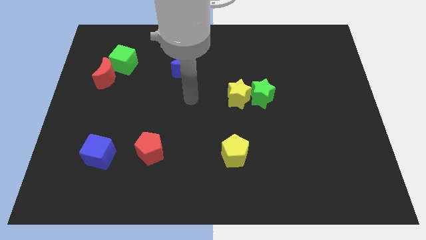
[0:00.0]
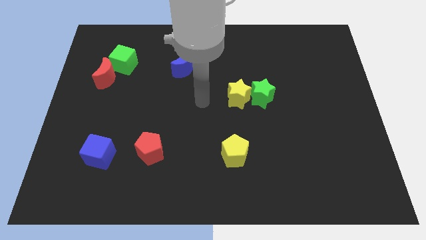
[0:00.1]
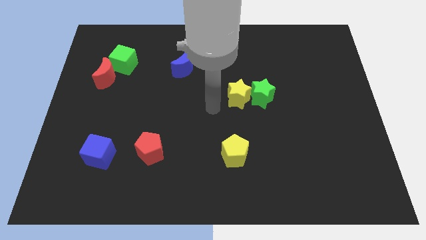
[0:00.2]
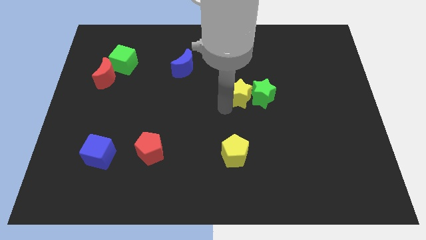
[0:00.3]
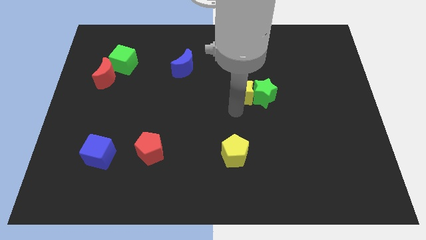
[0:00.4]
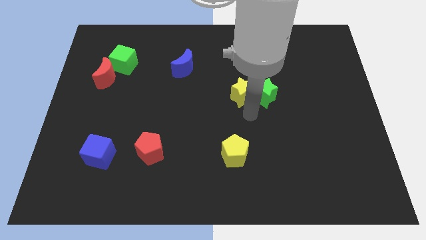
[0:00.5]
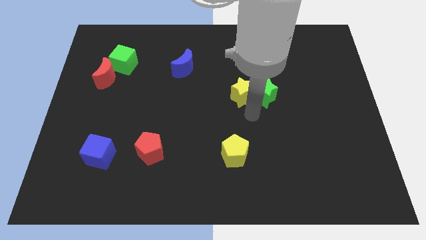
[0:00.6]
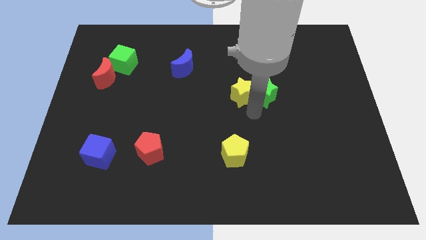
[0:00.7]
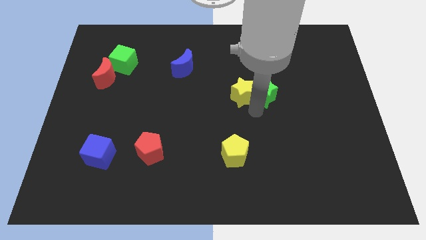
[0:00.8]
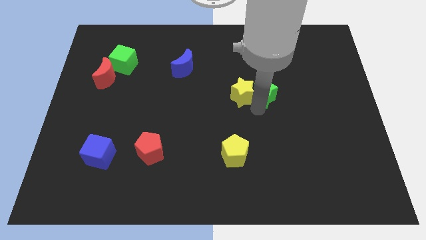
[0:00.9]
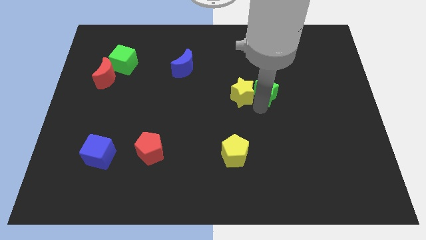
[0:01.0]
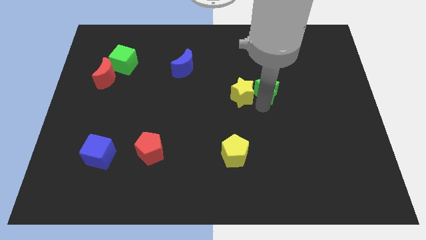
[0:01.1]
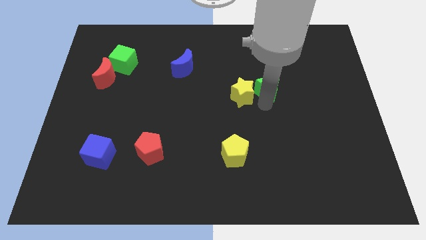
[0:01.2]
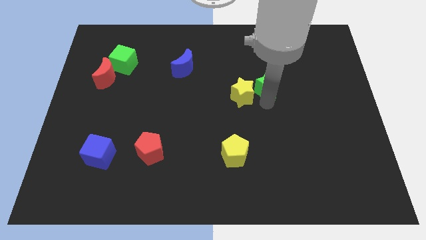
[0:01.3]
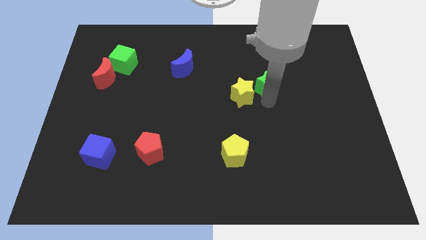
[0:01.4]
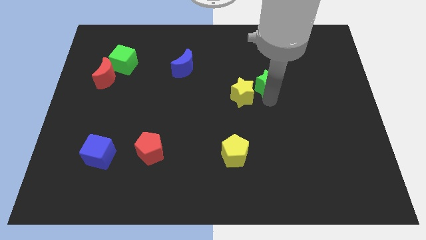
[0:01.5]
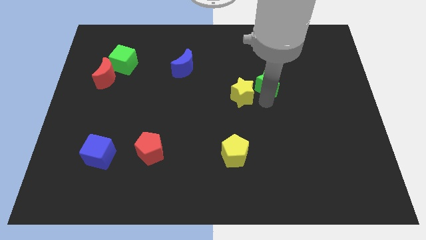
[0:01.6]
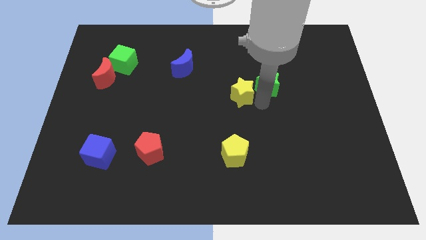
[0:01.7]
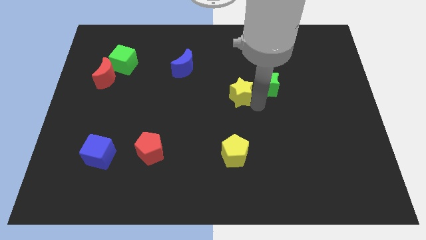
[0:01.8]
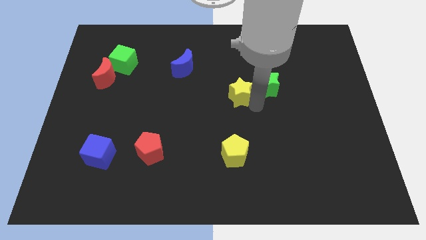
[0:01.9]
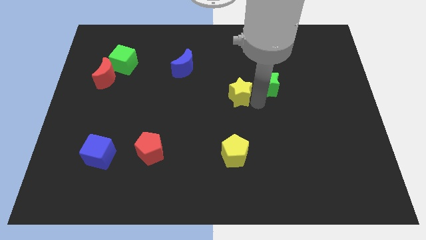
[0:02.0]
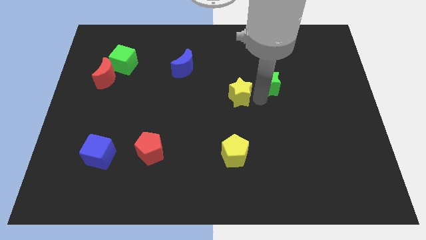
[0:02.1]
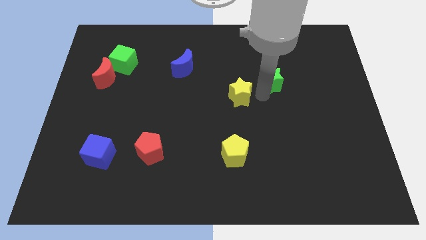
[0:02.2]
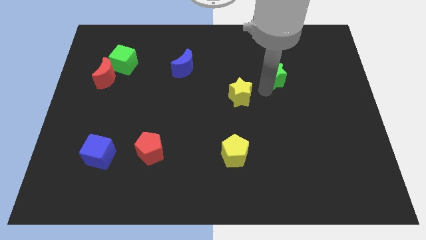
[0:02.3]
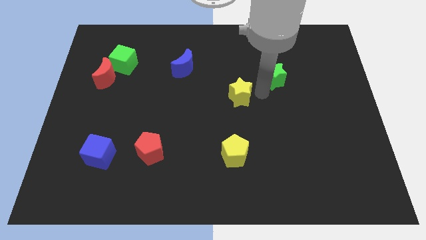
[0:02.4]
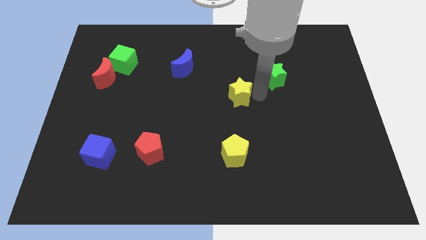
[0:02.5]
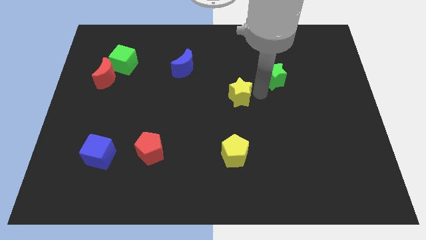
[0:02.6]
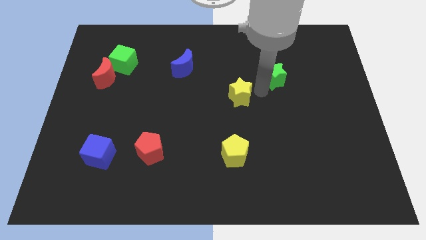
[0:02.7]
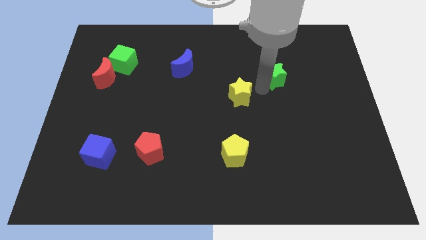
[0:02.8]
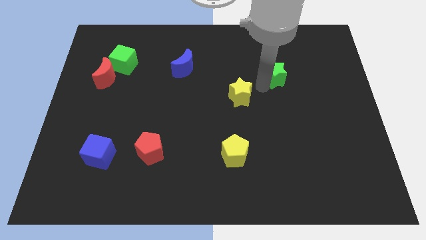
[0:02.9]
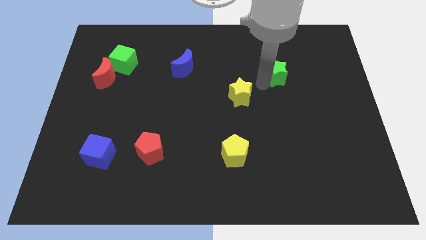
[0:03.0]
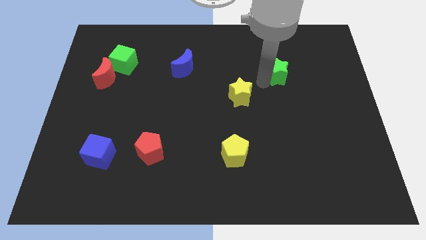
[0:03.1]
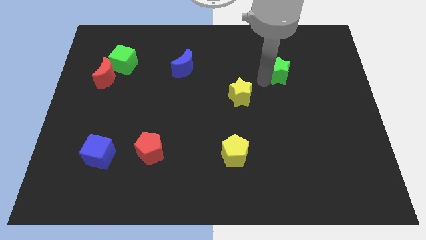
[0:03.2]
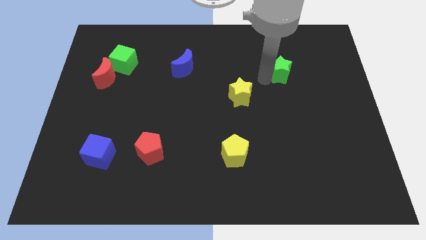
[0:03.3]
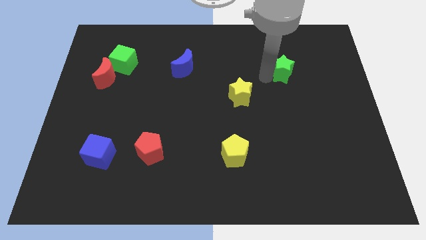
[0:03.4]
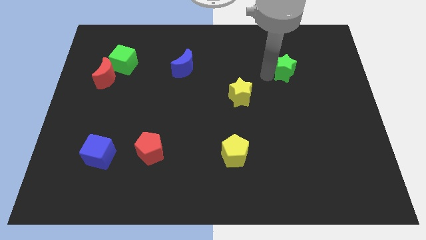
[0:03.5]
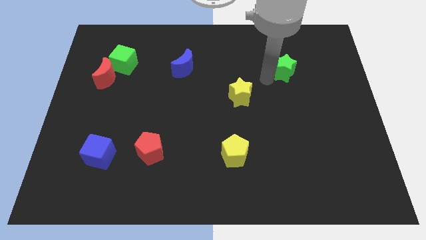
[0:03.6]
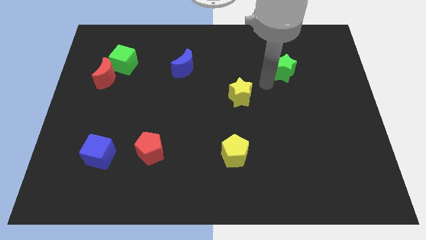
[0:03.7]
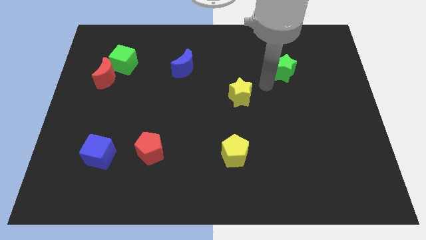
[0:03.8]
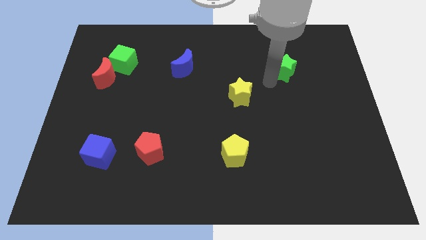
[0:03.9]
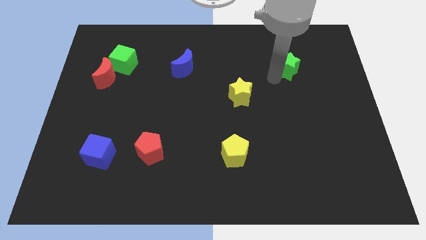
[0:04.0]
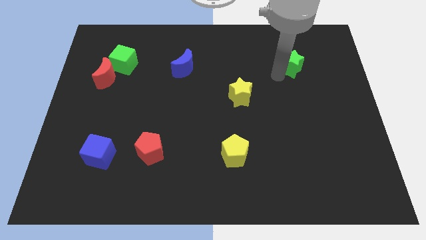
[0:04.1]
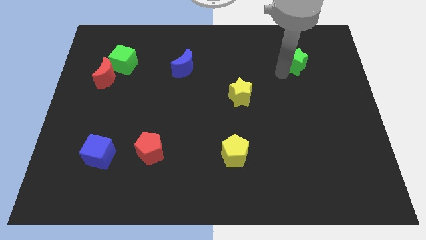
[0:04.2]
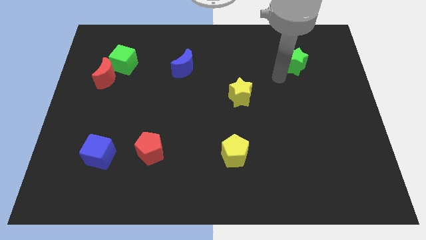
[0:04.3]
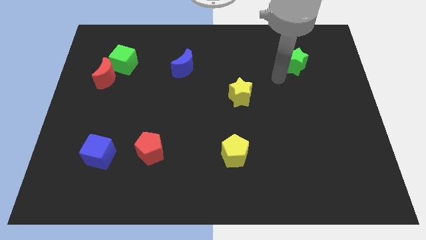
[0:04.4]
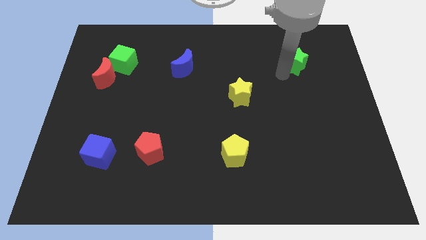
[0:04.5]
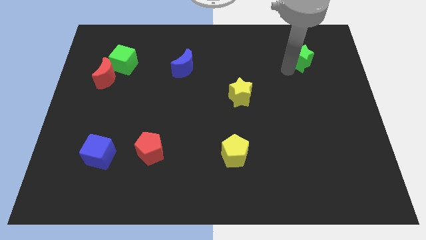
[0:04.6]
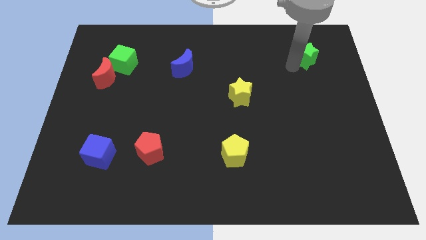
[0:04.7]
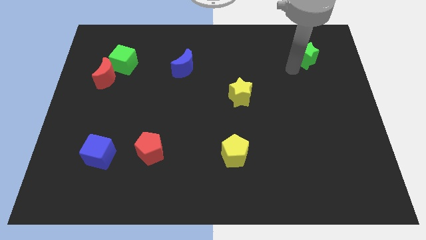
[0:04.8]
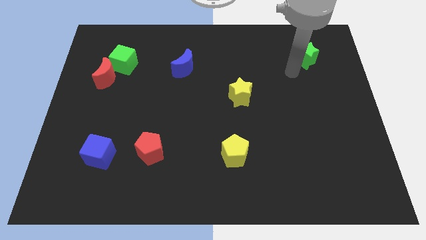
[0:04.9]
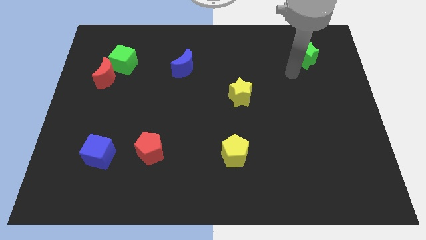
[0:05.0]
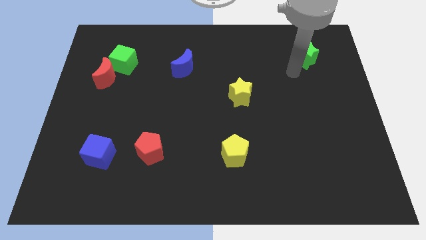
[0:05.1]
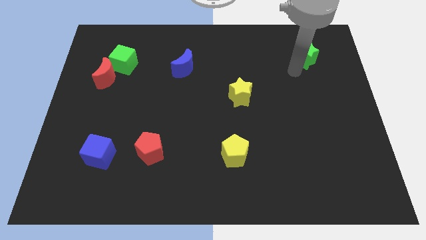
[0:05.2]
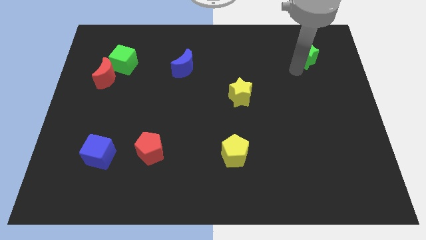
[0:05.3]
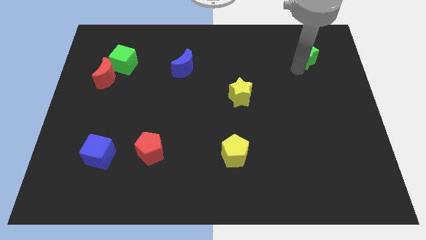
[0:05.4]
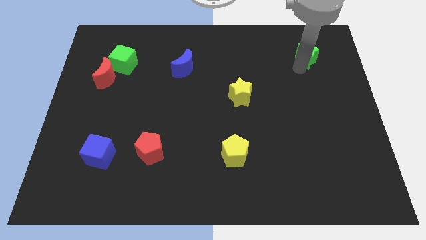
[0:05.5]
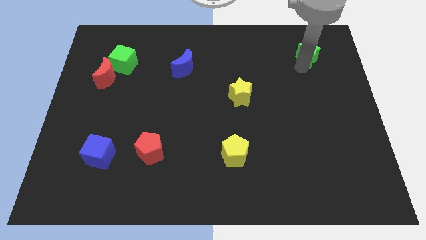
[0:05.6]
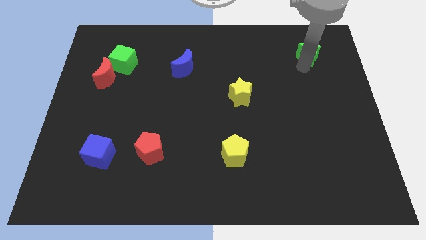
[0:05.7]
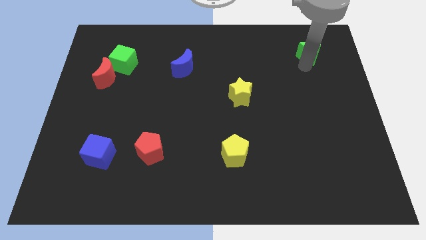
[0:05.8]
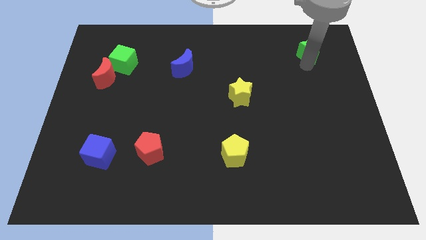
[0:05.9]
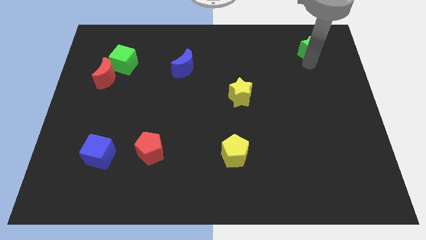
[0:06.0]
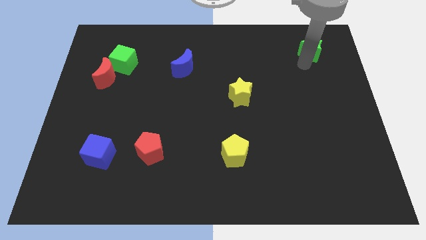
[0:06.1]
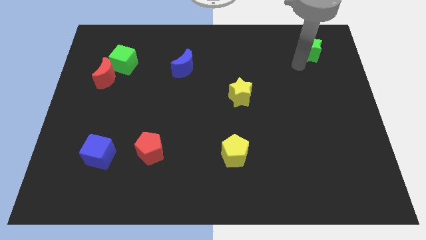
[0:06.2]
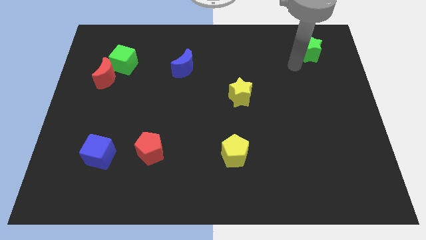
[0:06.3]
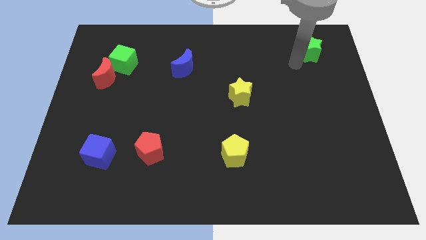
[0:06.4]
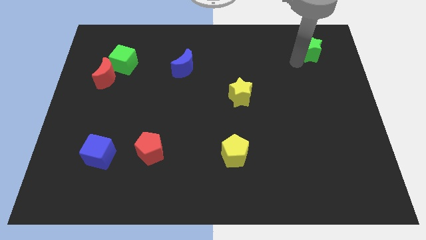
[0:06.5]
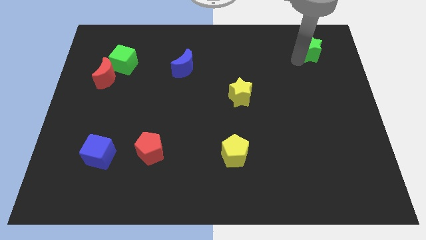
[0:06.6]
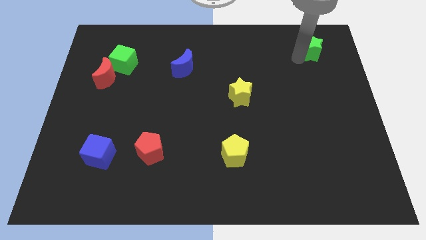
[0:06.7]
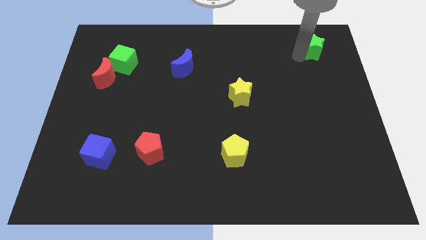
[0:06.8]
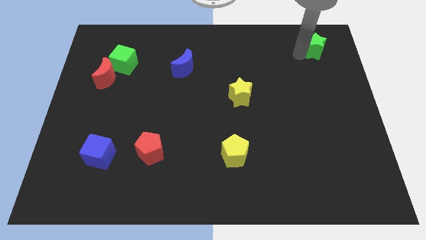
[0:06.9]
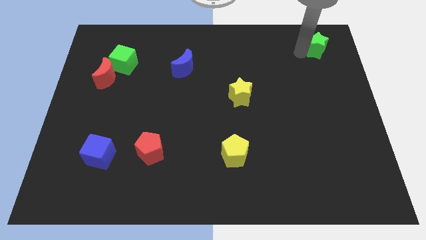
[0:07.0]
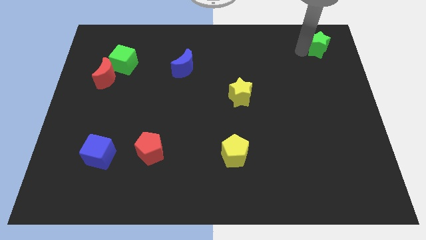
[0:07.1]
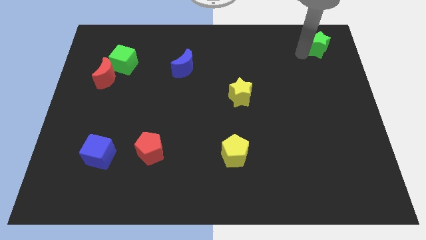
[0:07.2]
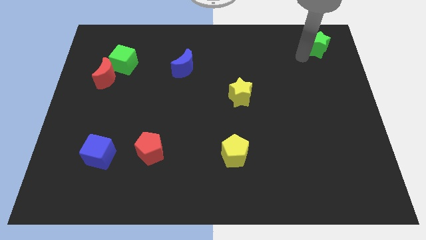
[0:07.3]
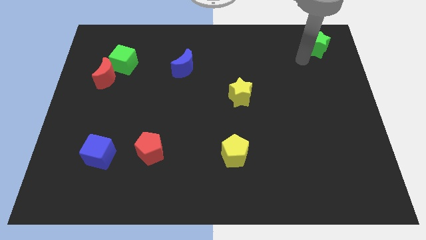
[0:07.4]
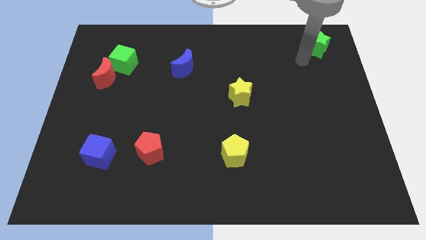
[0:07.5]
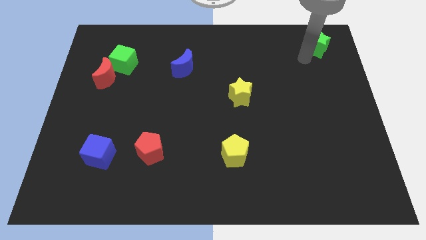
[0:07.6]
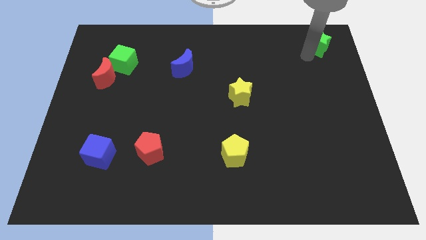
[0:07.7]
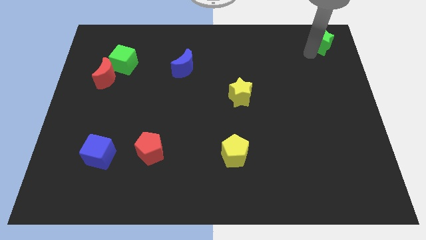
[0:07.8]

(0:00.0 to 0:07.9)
move the green star to the top right
